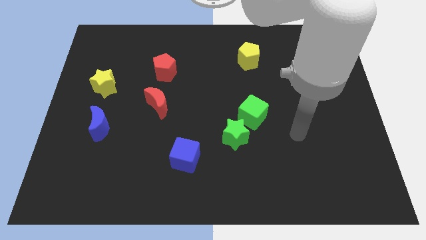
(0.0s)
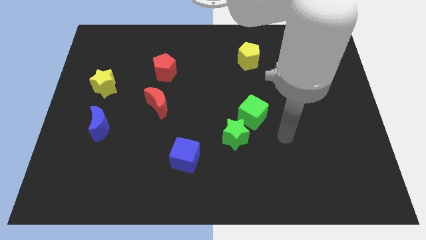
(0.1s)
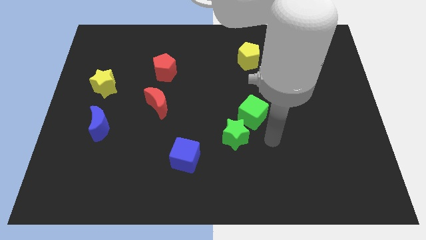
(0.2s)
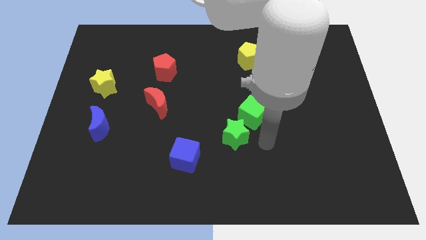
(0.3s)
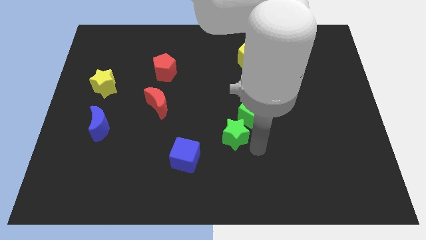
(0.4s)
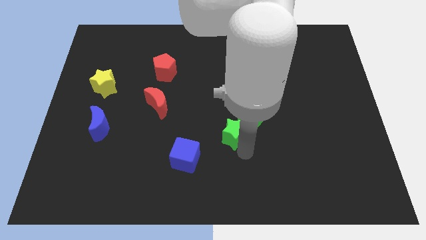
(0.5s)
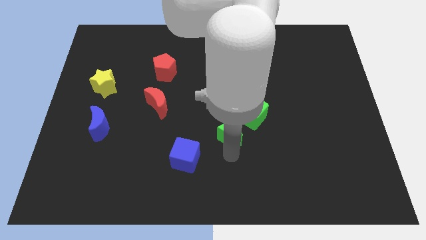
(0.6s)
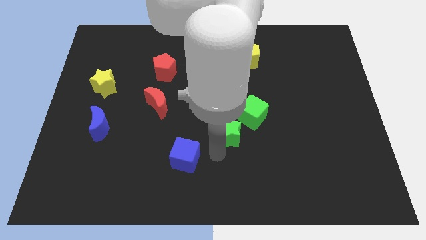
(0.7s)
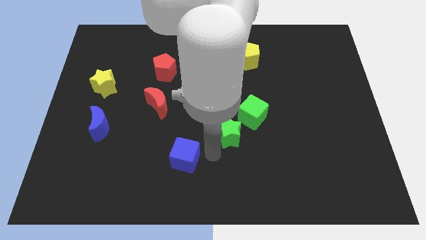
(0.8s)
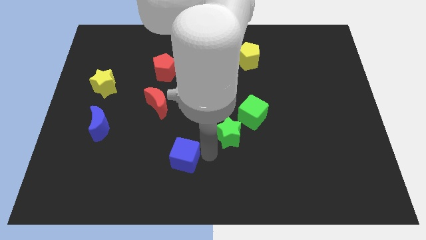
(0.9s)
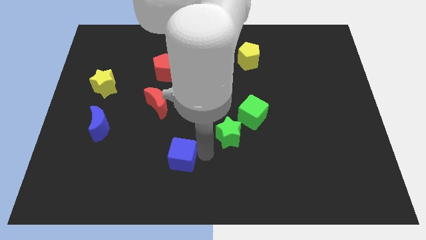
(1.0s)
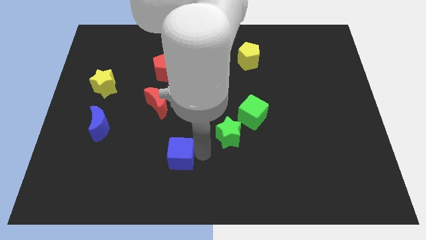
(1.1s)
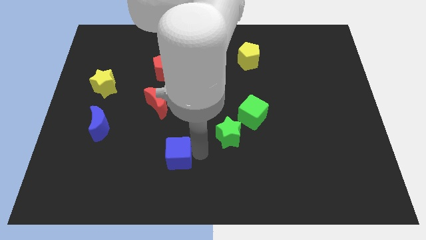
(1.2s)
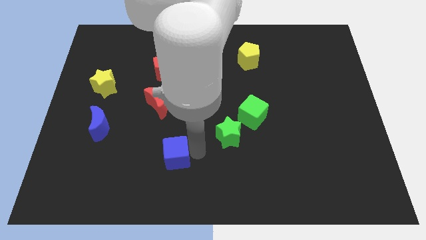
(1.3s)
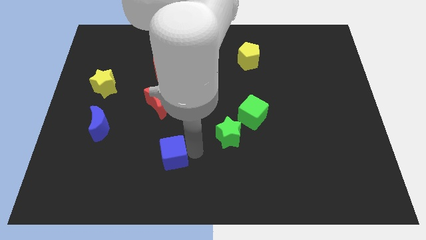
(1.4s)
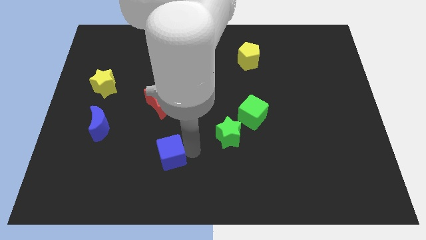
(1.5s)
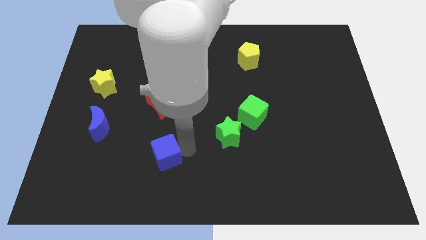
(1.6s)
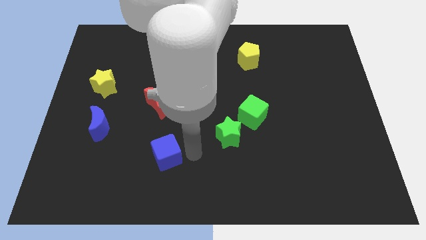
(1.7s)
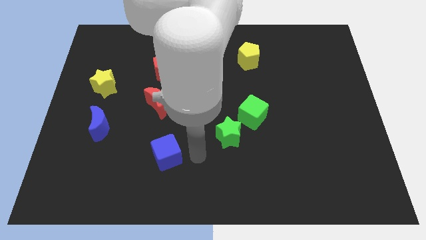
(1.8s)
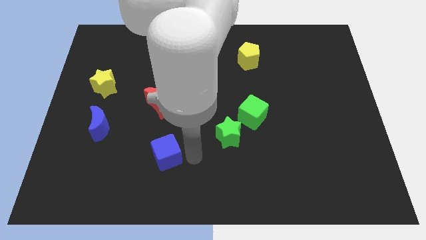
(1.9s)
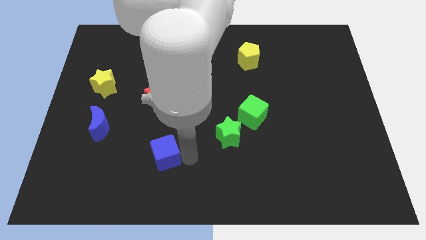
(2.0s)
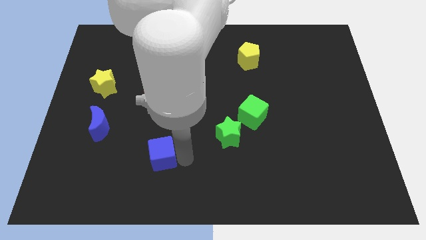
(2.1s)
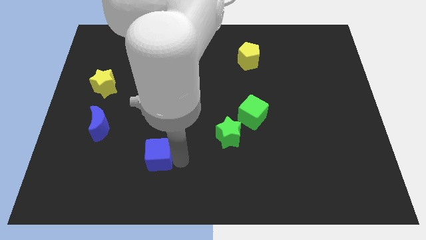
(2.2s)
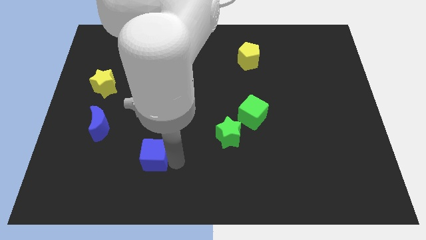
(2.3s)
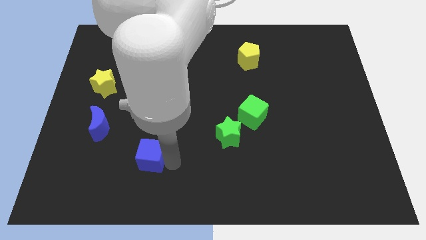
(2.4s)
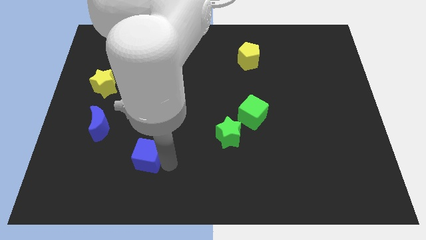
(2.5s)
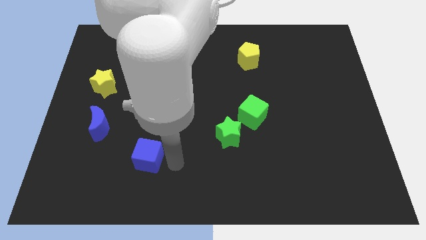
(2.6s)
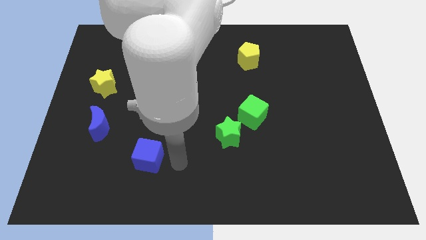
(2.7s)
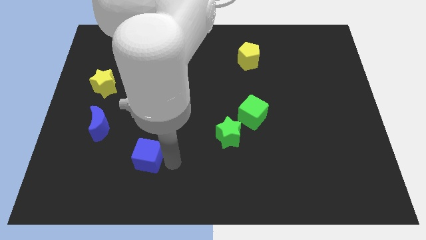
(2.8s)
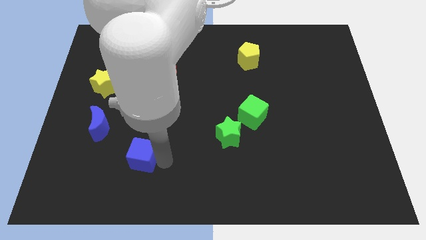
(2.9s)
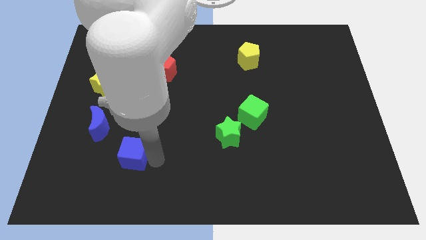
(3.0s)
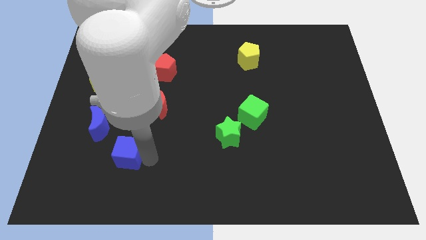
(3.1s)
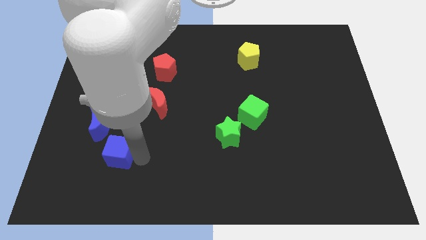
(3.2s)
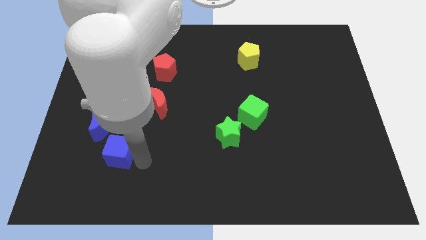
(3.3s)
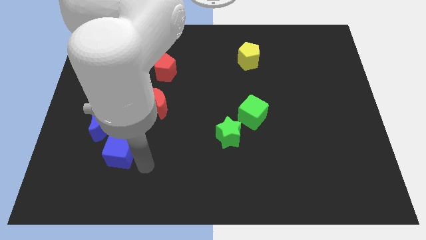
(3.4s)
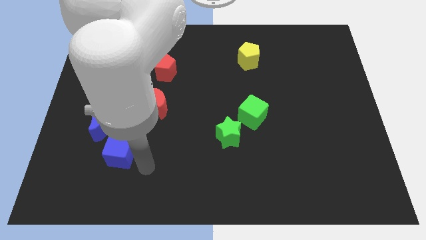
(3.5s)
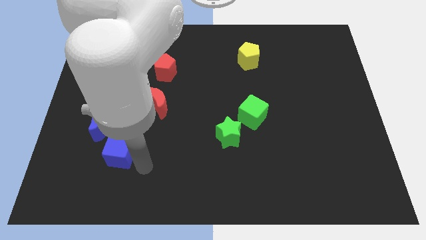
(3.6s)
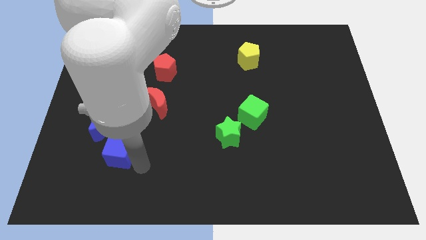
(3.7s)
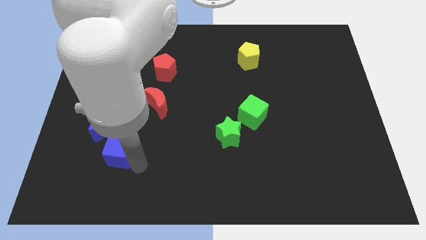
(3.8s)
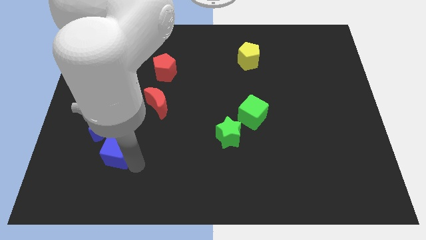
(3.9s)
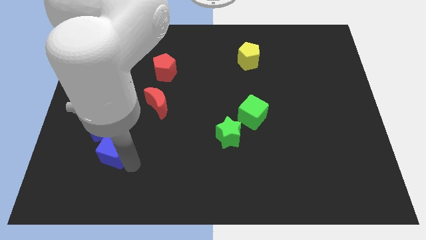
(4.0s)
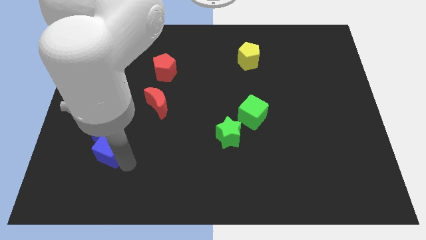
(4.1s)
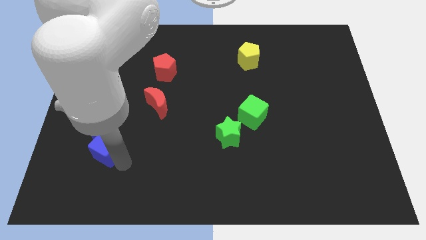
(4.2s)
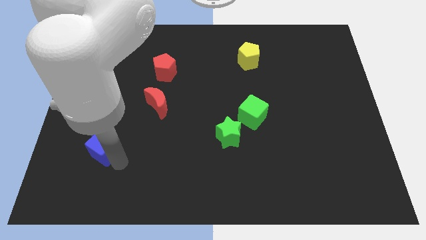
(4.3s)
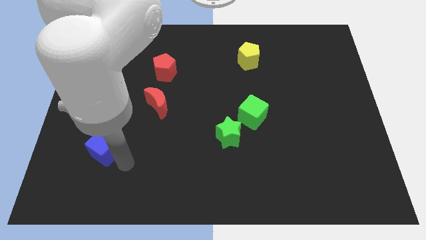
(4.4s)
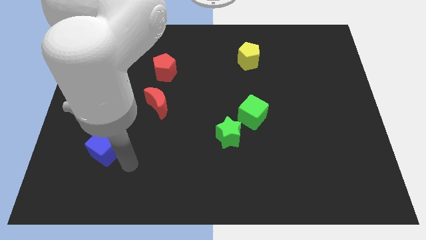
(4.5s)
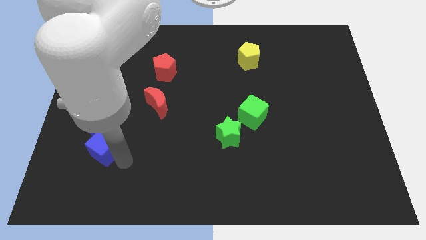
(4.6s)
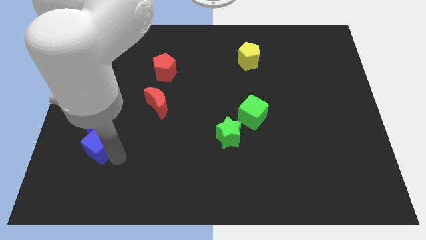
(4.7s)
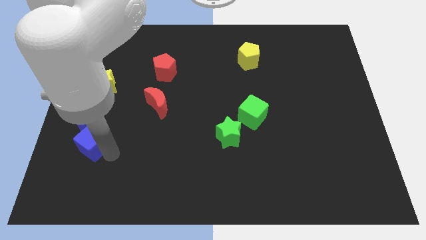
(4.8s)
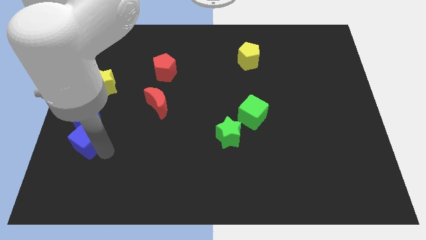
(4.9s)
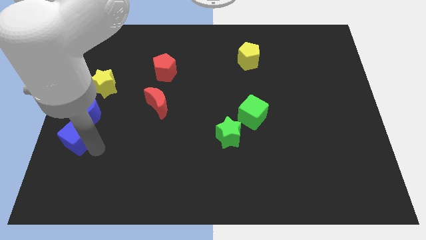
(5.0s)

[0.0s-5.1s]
push the blue cube to the left side of the board

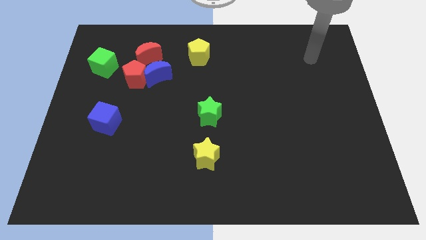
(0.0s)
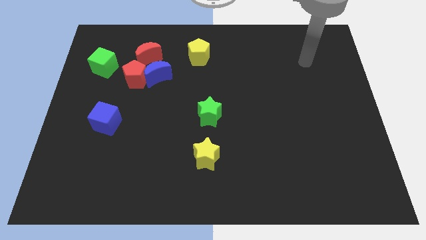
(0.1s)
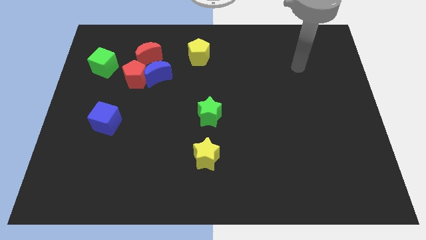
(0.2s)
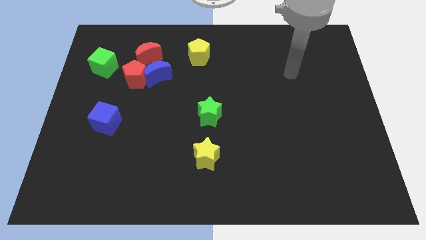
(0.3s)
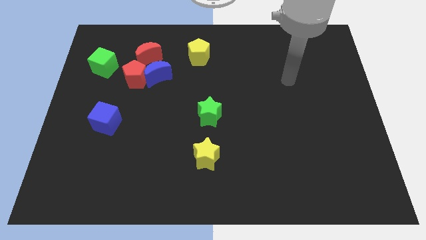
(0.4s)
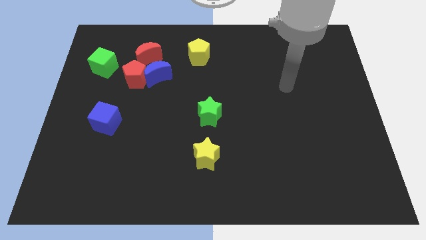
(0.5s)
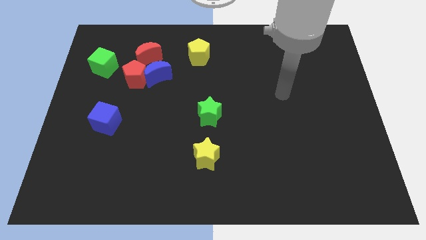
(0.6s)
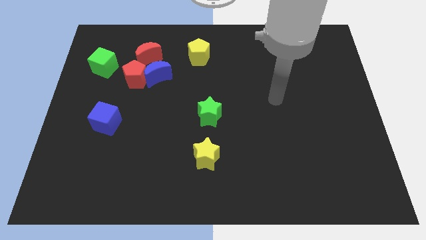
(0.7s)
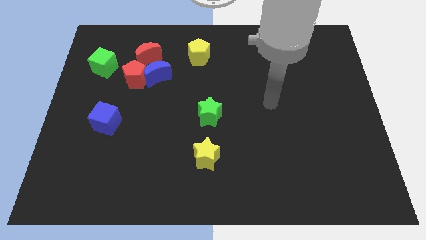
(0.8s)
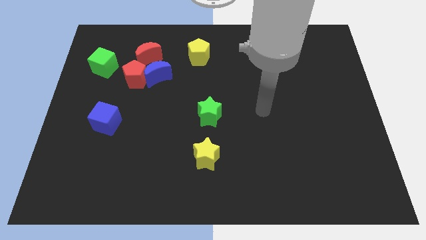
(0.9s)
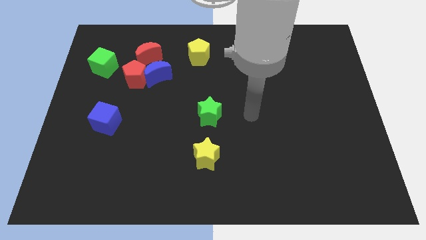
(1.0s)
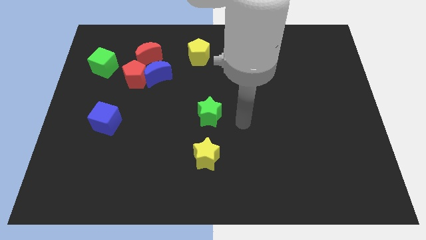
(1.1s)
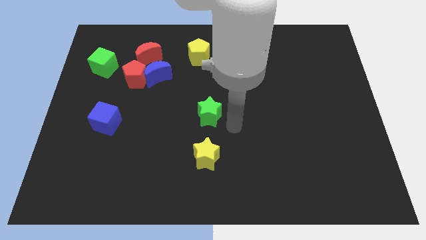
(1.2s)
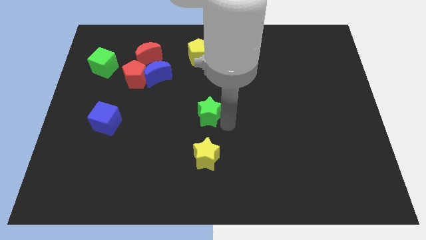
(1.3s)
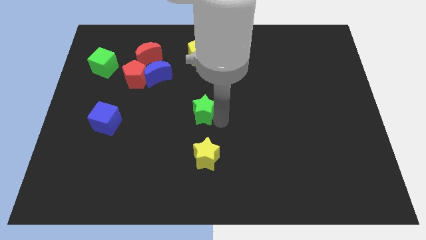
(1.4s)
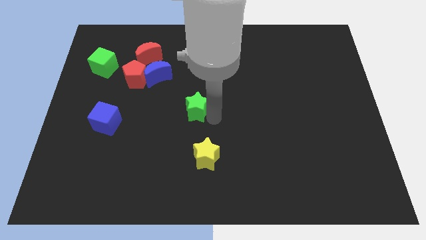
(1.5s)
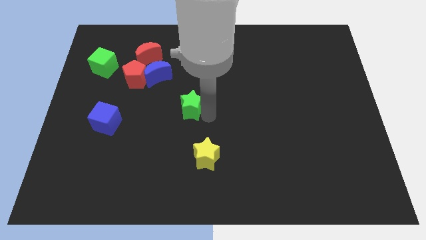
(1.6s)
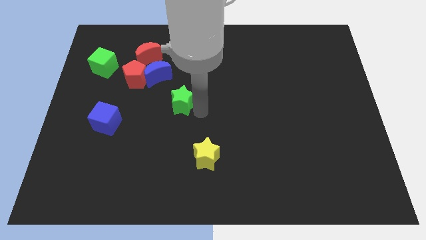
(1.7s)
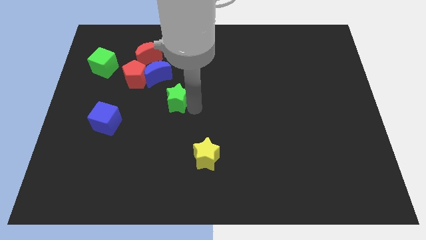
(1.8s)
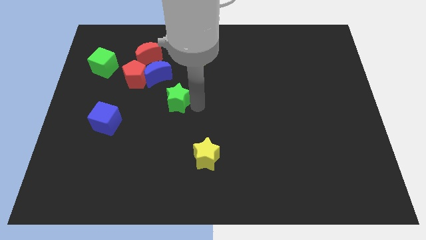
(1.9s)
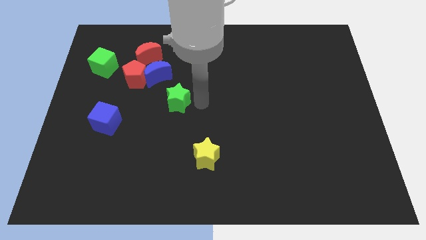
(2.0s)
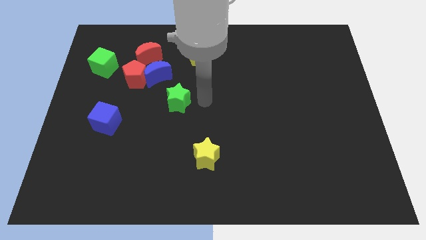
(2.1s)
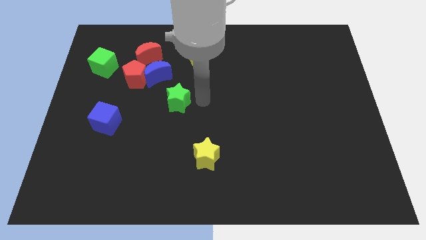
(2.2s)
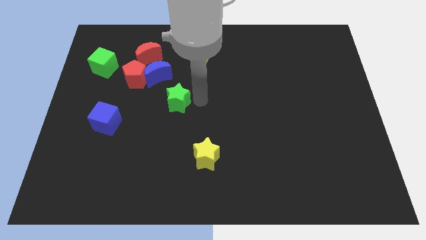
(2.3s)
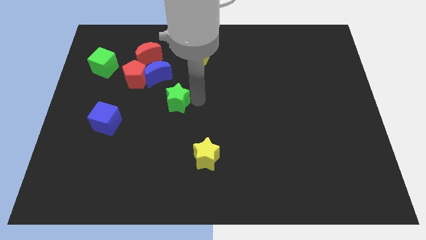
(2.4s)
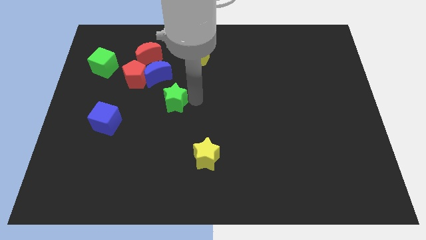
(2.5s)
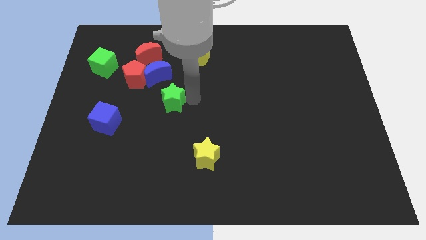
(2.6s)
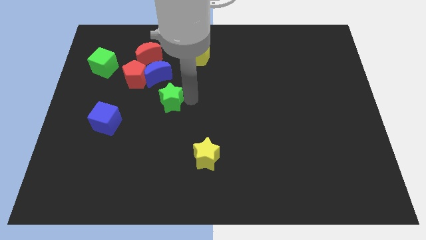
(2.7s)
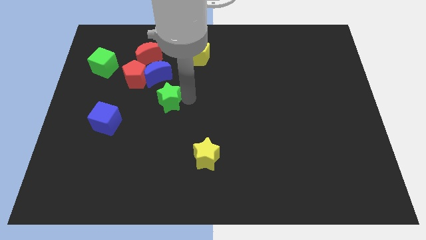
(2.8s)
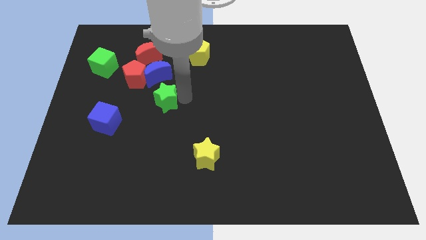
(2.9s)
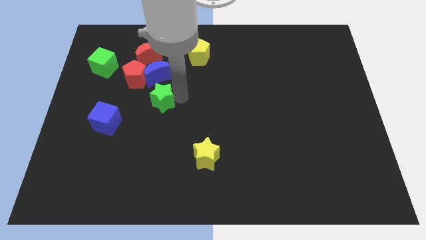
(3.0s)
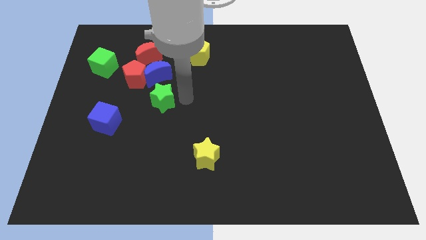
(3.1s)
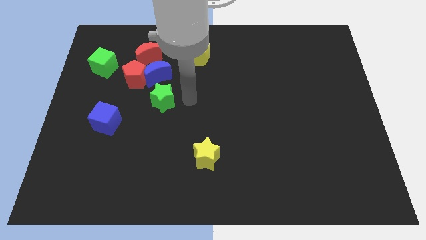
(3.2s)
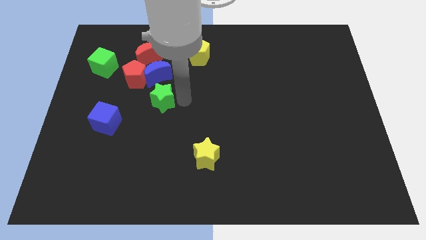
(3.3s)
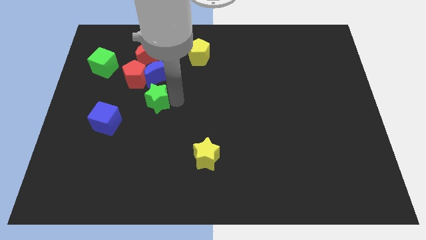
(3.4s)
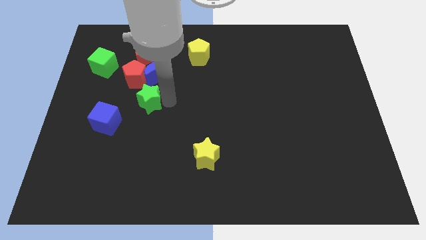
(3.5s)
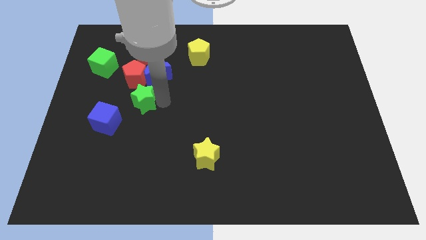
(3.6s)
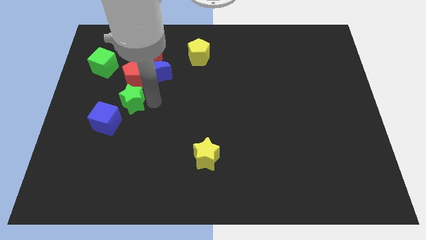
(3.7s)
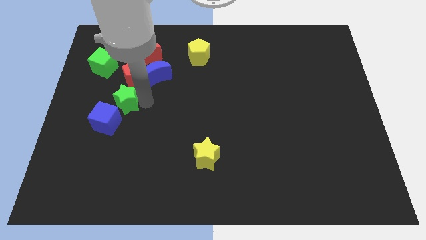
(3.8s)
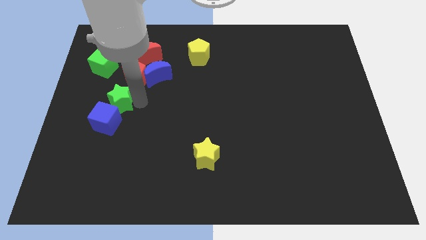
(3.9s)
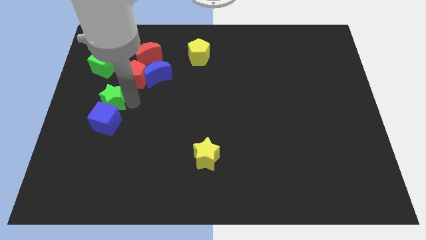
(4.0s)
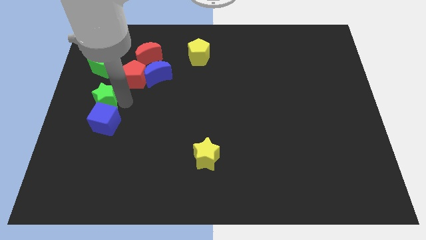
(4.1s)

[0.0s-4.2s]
move the green star to the left side
